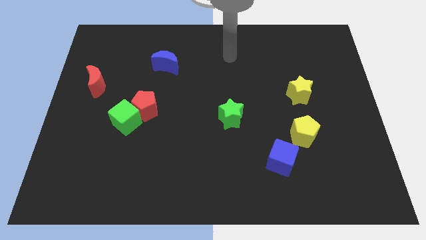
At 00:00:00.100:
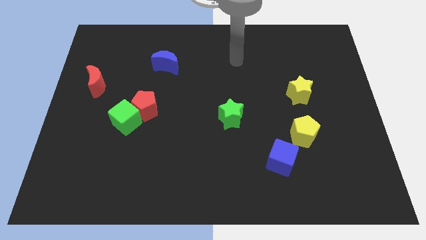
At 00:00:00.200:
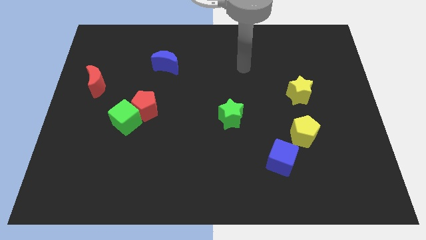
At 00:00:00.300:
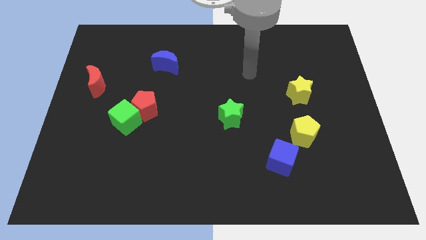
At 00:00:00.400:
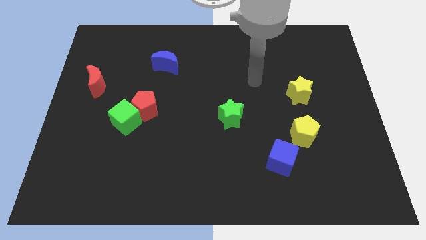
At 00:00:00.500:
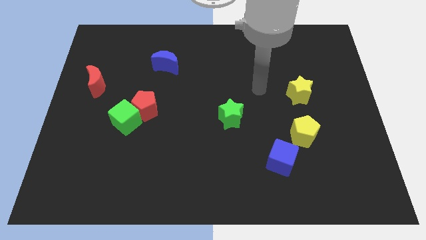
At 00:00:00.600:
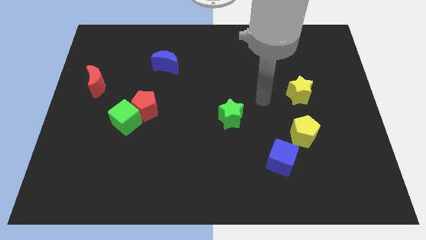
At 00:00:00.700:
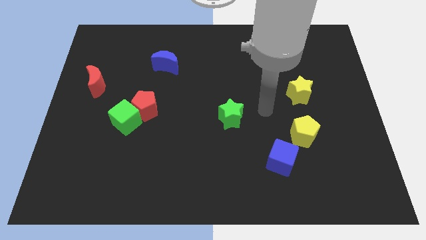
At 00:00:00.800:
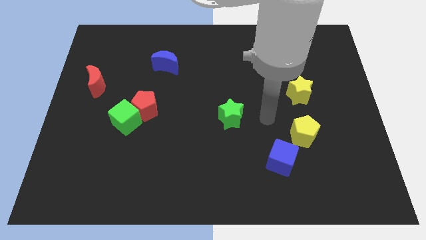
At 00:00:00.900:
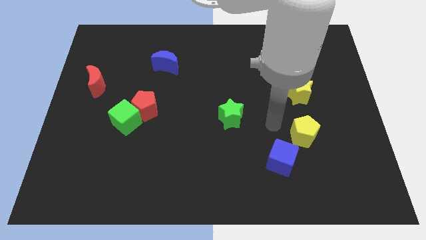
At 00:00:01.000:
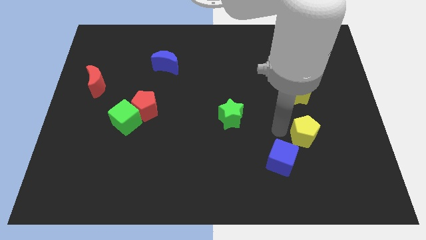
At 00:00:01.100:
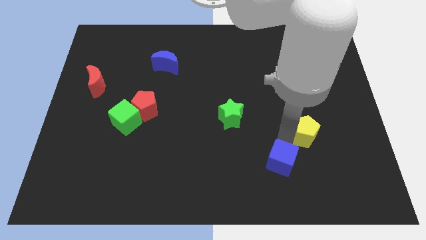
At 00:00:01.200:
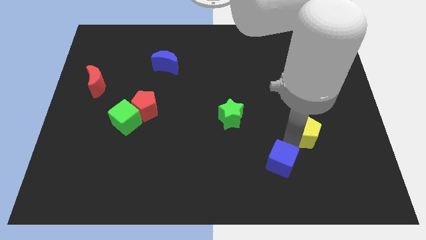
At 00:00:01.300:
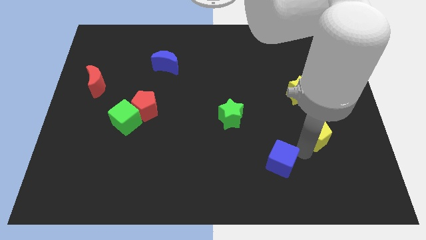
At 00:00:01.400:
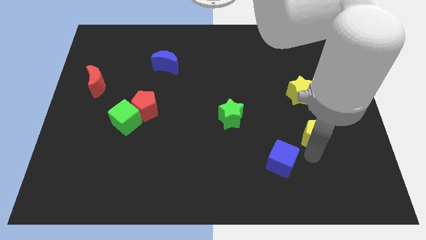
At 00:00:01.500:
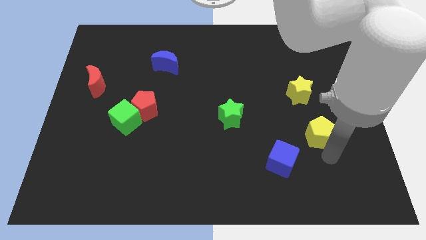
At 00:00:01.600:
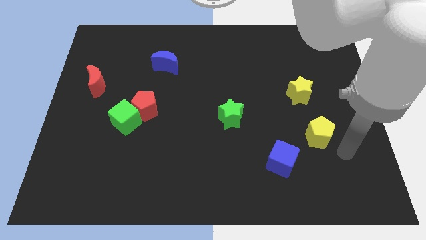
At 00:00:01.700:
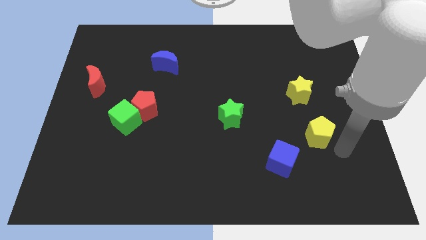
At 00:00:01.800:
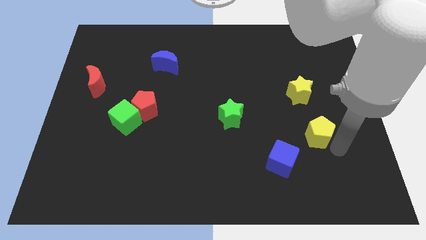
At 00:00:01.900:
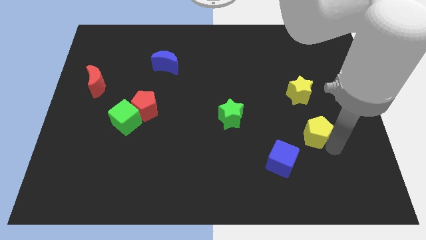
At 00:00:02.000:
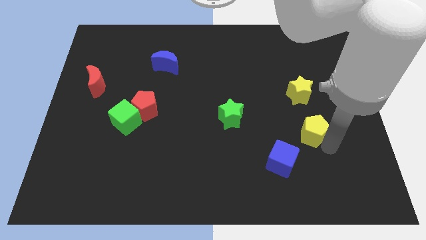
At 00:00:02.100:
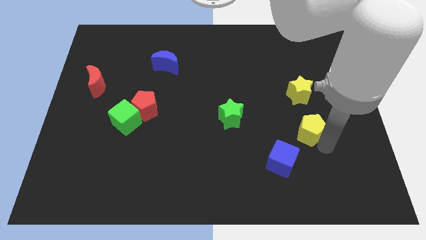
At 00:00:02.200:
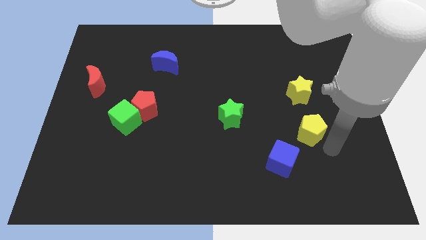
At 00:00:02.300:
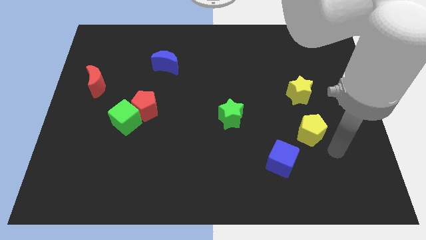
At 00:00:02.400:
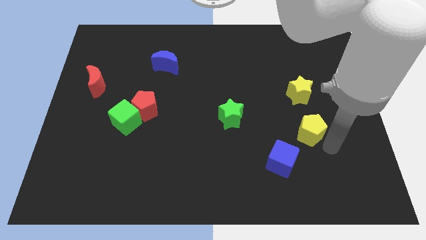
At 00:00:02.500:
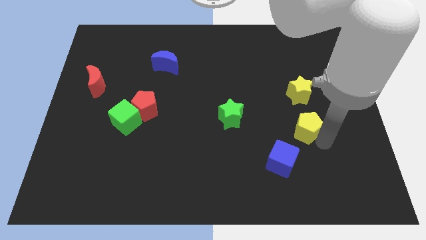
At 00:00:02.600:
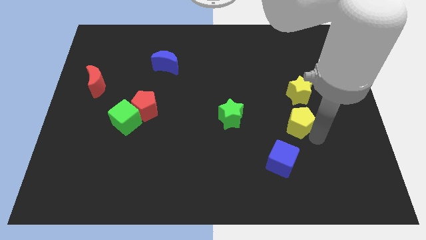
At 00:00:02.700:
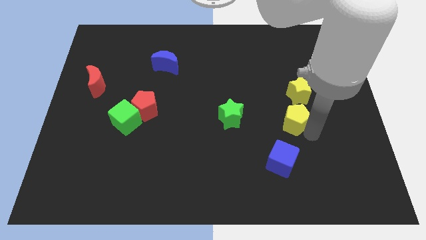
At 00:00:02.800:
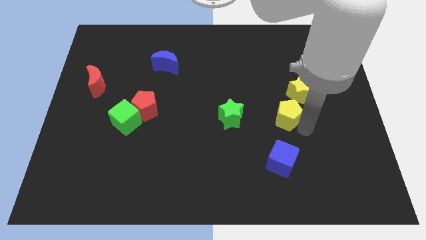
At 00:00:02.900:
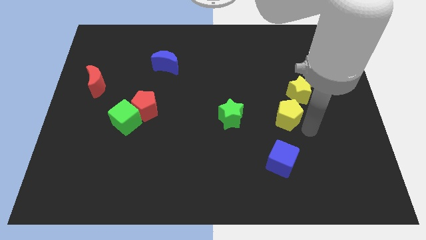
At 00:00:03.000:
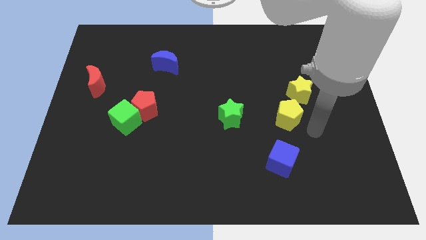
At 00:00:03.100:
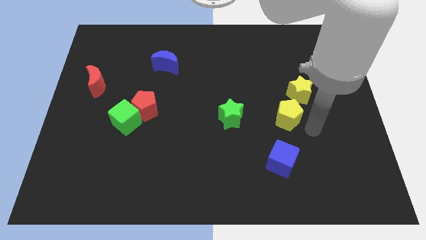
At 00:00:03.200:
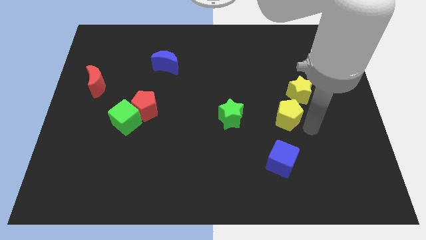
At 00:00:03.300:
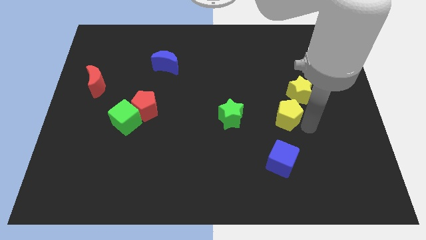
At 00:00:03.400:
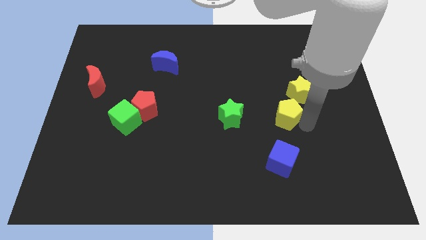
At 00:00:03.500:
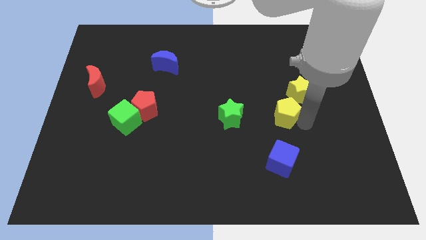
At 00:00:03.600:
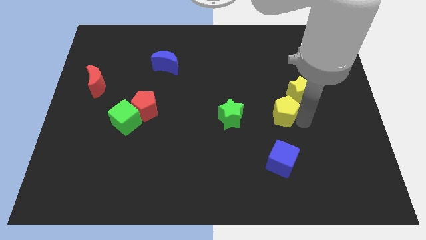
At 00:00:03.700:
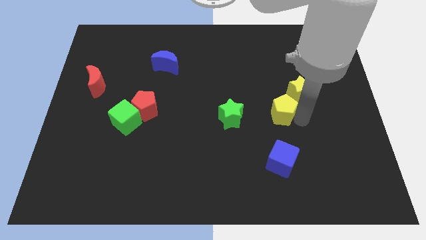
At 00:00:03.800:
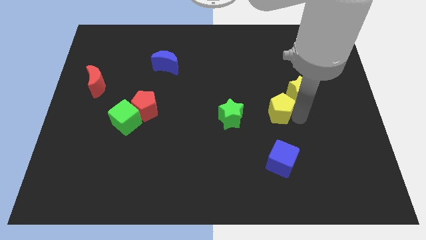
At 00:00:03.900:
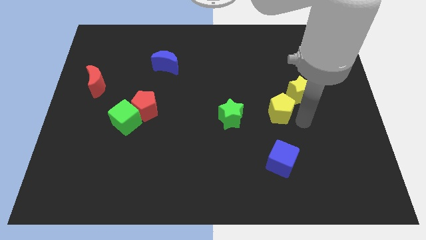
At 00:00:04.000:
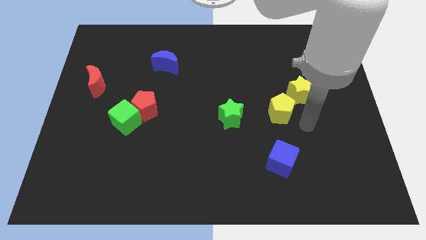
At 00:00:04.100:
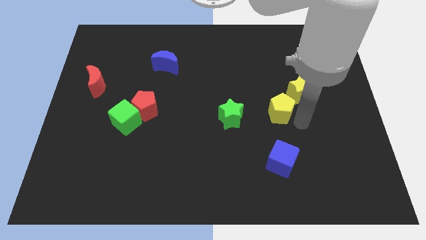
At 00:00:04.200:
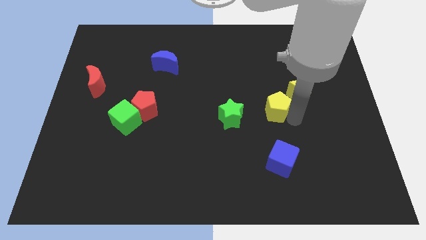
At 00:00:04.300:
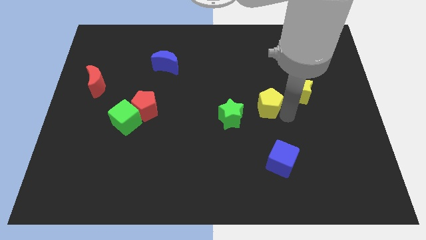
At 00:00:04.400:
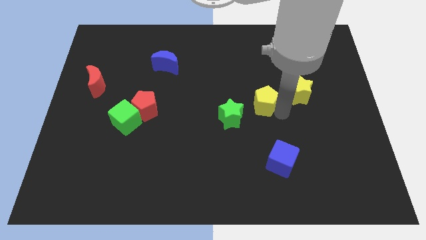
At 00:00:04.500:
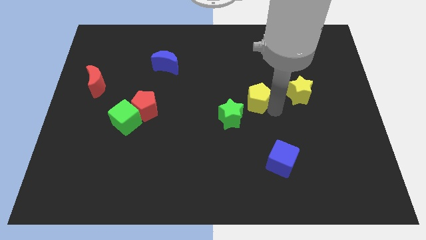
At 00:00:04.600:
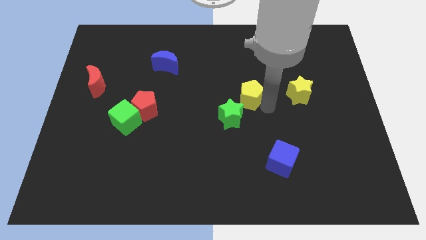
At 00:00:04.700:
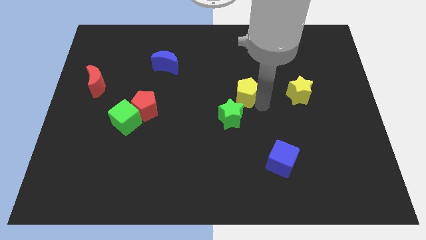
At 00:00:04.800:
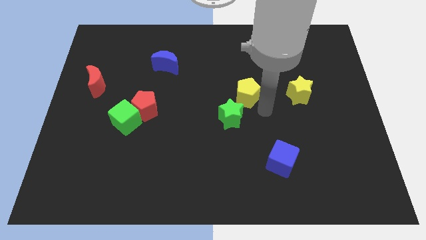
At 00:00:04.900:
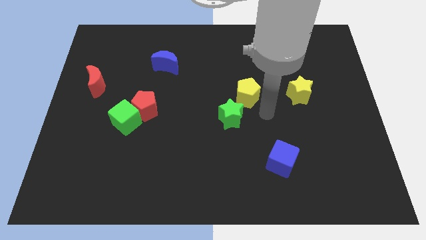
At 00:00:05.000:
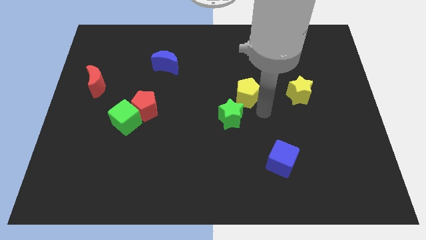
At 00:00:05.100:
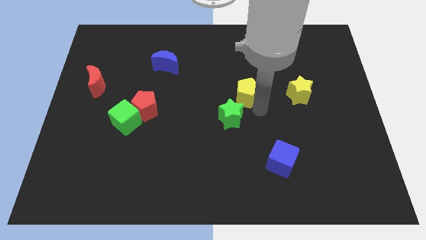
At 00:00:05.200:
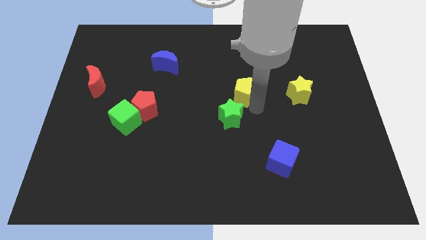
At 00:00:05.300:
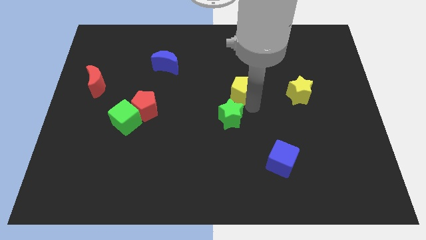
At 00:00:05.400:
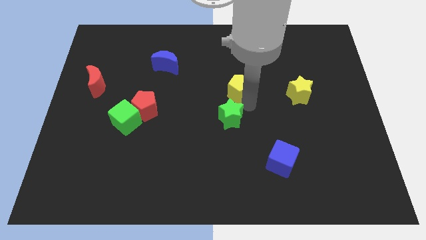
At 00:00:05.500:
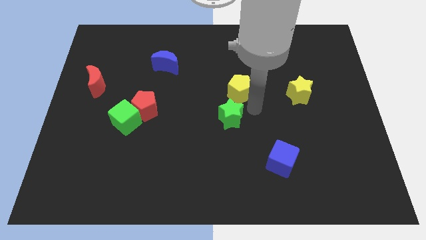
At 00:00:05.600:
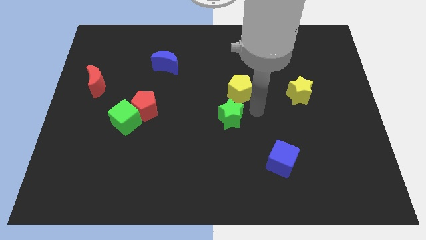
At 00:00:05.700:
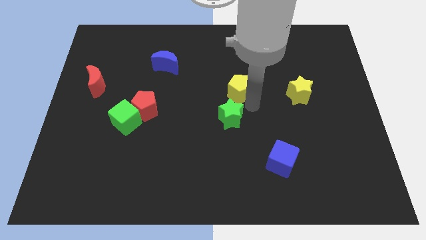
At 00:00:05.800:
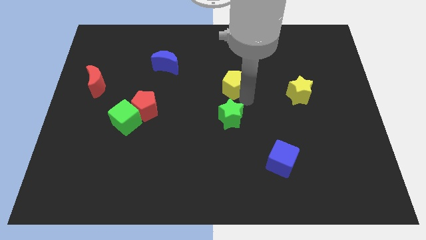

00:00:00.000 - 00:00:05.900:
push the yellow pentagon up and then to the left

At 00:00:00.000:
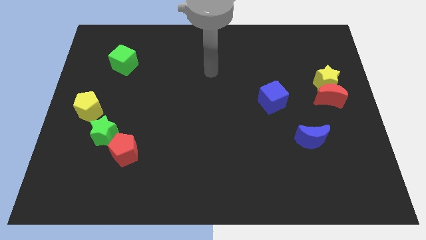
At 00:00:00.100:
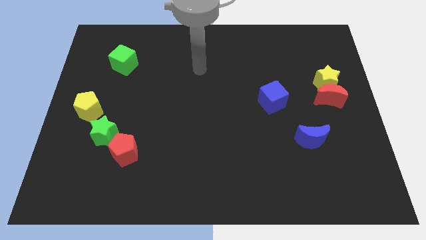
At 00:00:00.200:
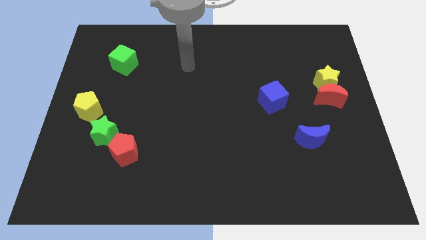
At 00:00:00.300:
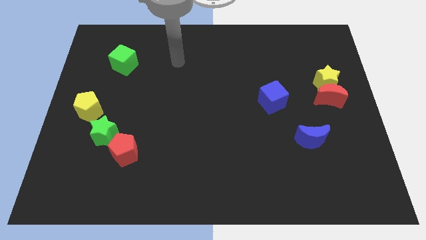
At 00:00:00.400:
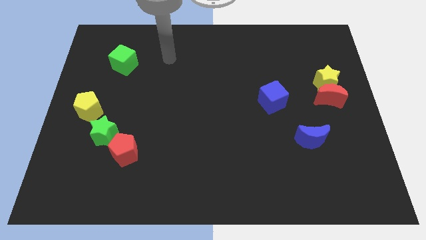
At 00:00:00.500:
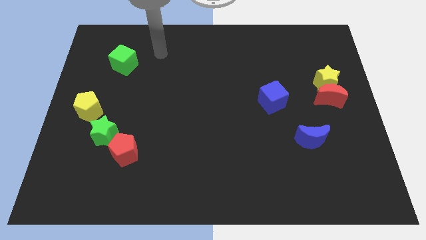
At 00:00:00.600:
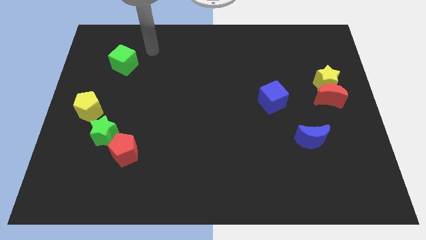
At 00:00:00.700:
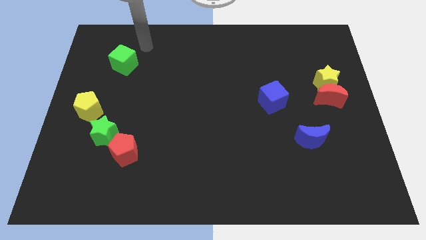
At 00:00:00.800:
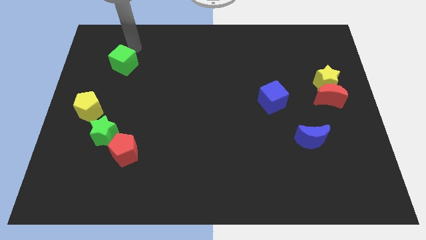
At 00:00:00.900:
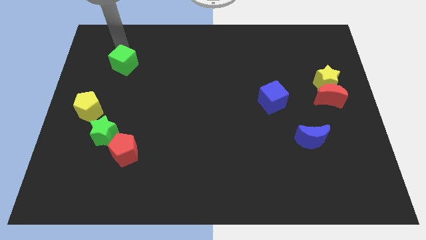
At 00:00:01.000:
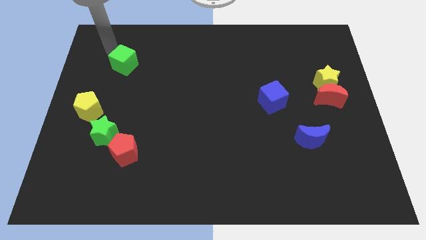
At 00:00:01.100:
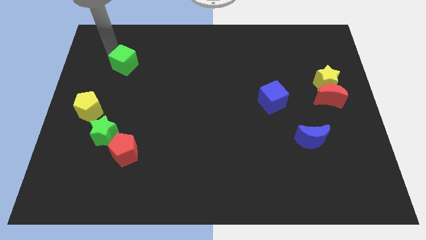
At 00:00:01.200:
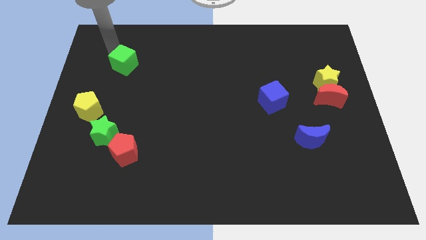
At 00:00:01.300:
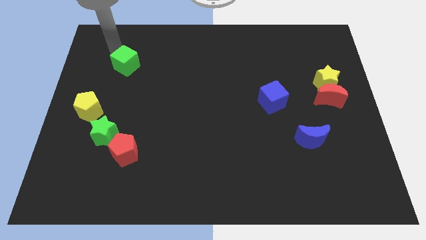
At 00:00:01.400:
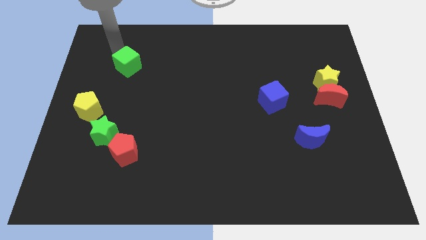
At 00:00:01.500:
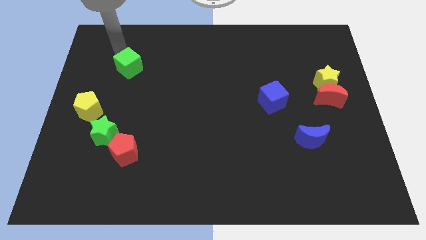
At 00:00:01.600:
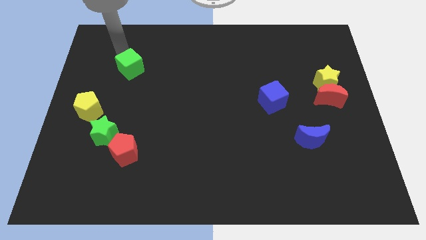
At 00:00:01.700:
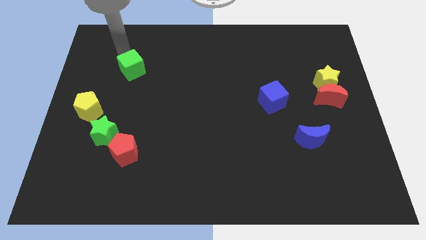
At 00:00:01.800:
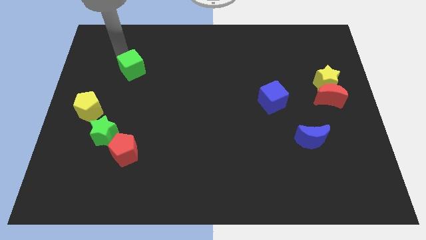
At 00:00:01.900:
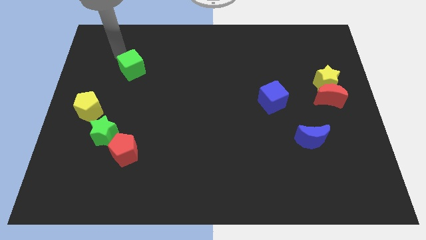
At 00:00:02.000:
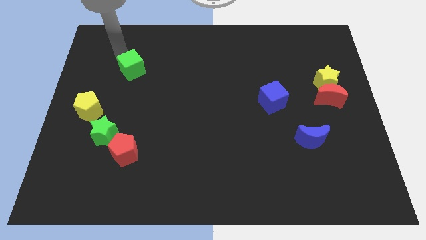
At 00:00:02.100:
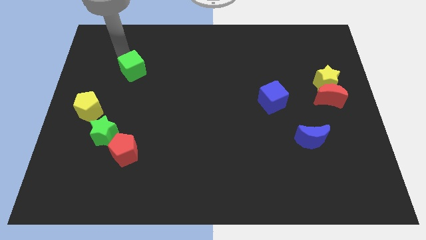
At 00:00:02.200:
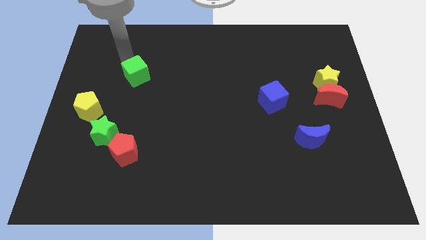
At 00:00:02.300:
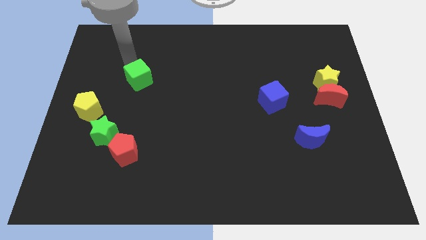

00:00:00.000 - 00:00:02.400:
slightly slide the green cube down and then to the right
